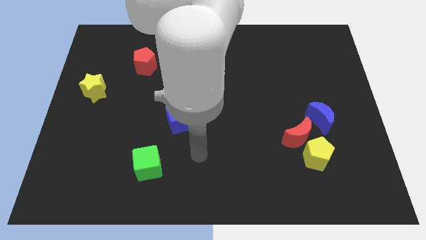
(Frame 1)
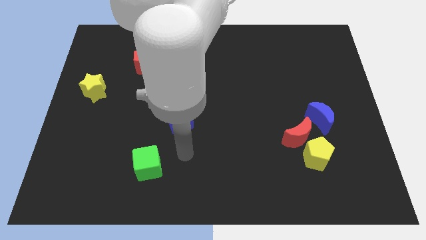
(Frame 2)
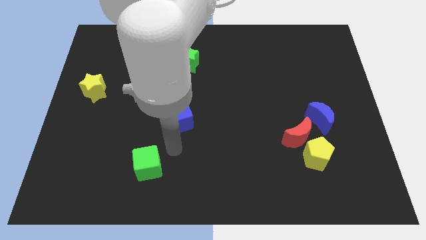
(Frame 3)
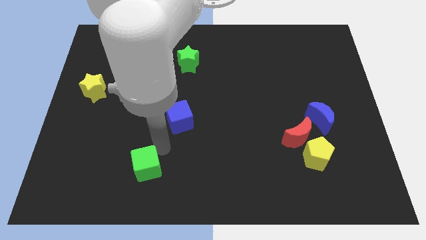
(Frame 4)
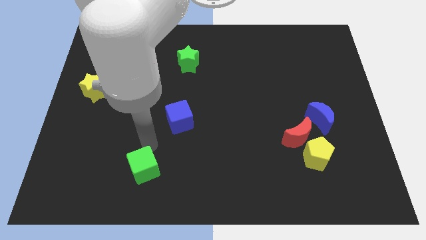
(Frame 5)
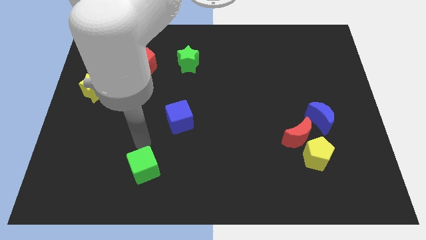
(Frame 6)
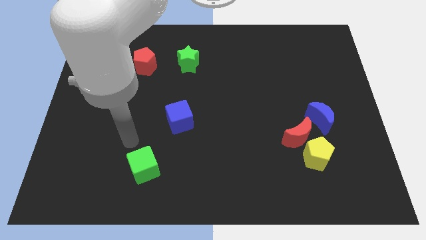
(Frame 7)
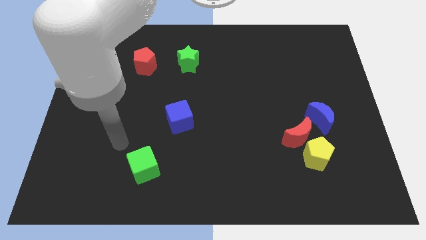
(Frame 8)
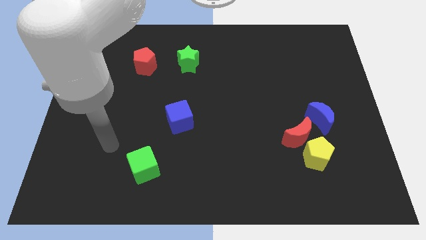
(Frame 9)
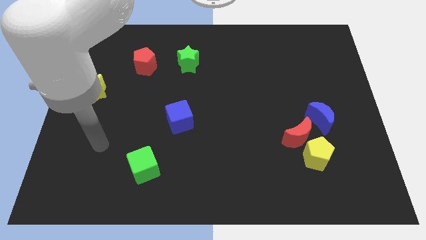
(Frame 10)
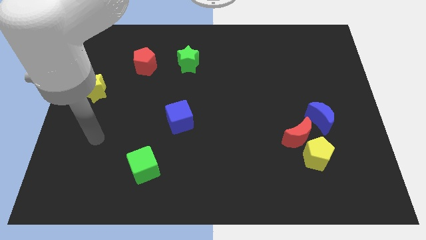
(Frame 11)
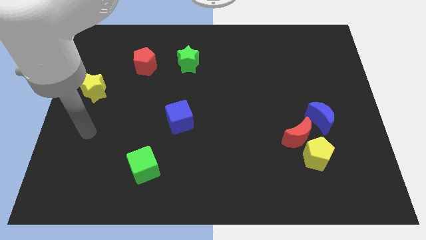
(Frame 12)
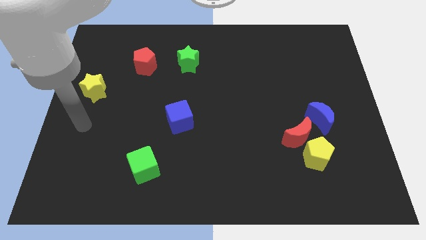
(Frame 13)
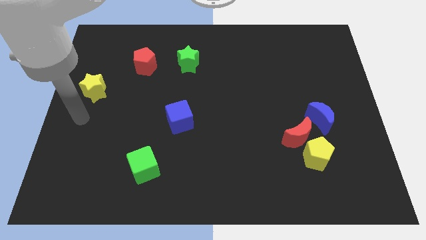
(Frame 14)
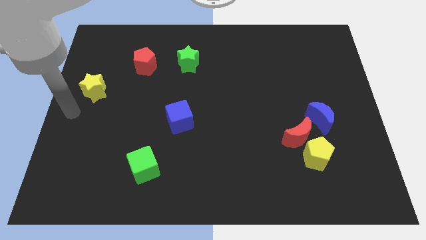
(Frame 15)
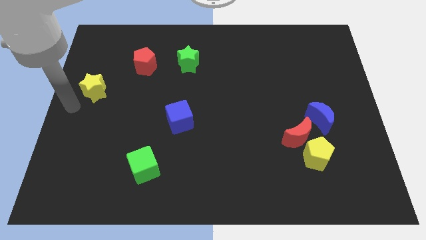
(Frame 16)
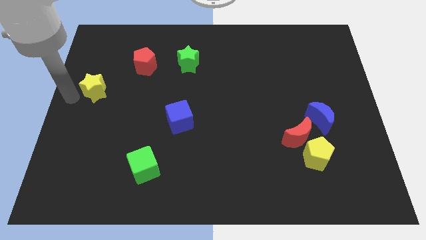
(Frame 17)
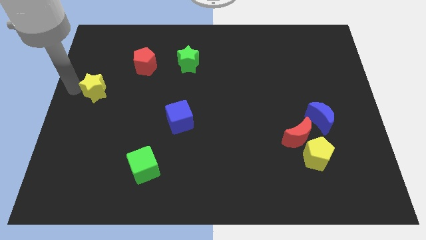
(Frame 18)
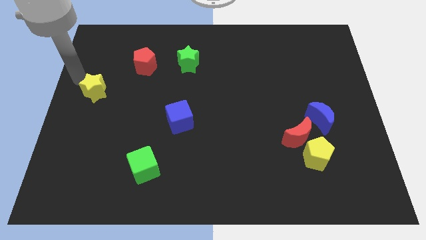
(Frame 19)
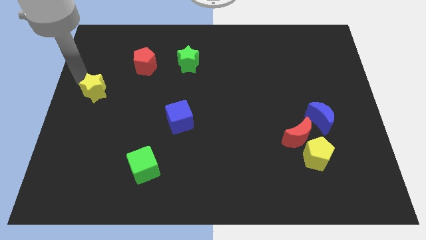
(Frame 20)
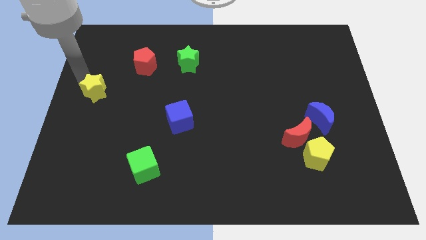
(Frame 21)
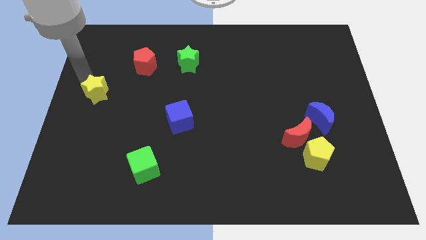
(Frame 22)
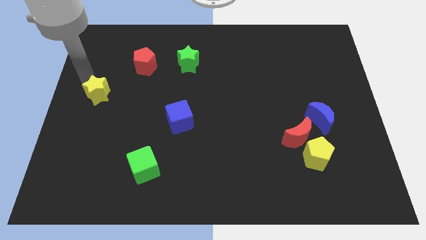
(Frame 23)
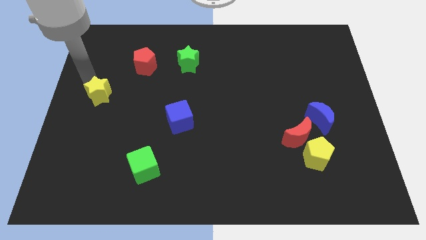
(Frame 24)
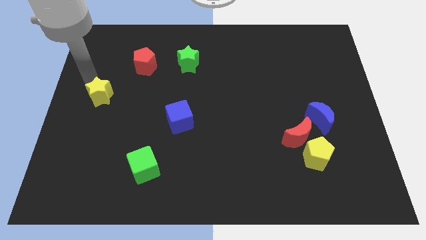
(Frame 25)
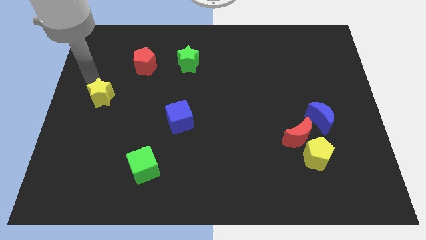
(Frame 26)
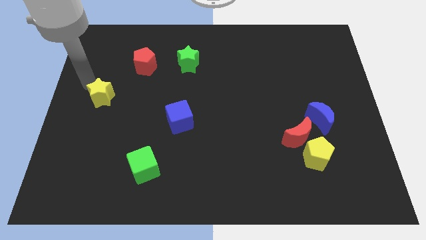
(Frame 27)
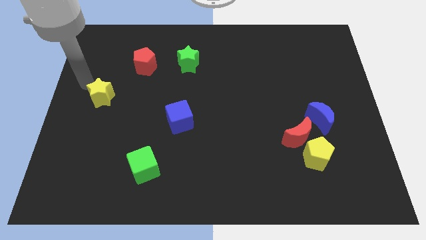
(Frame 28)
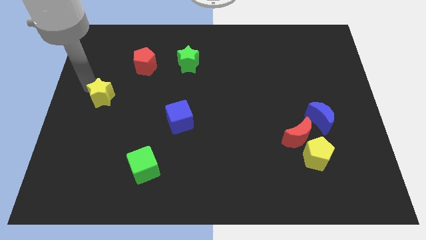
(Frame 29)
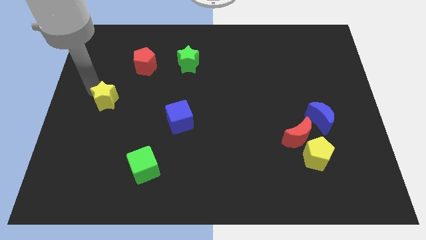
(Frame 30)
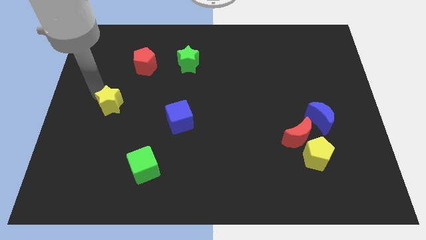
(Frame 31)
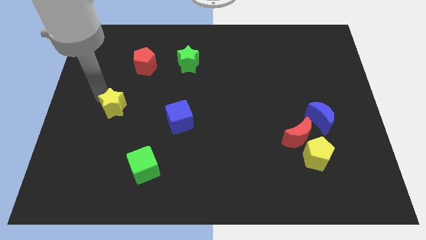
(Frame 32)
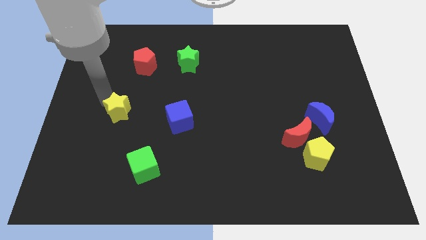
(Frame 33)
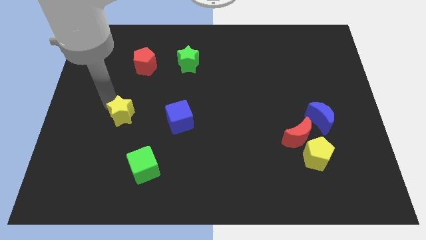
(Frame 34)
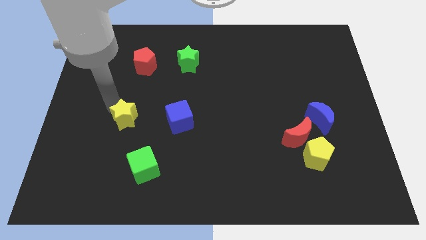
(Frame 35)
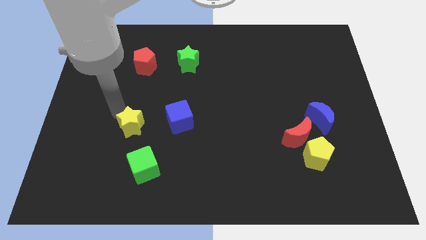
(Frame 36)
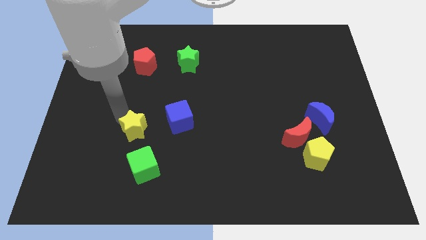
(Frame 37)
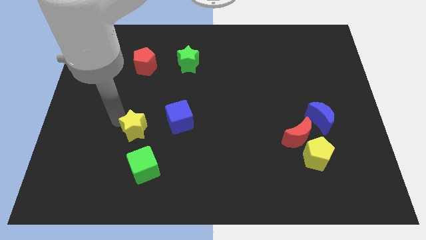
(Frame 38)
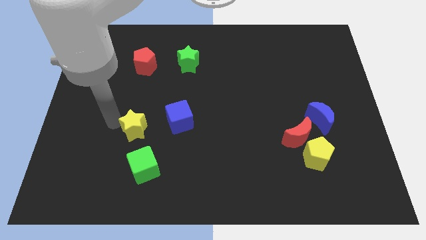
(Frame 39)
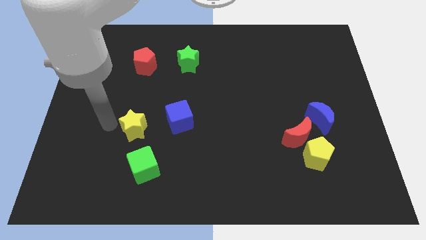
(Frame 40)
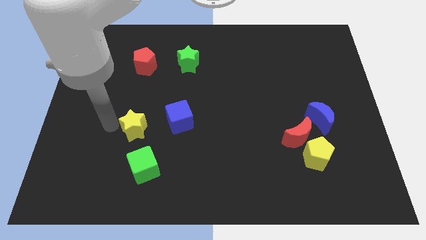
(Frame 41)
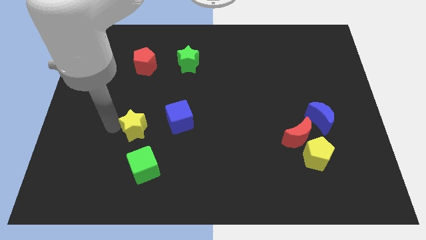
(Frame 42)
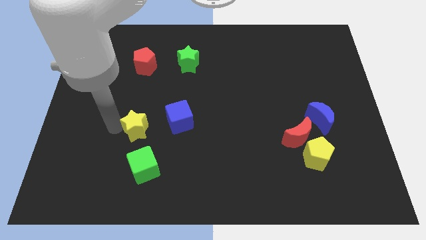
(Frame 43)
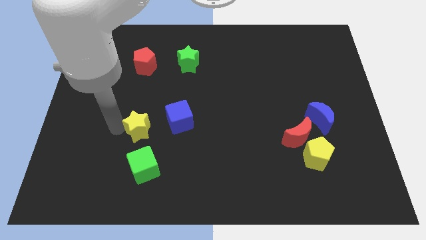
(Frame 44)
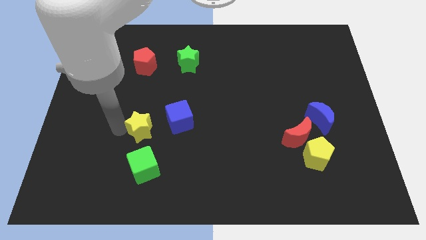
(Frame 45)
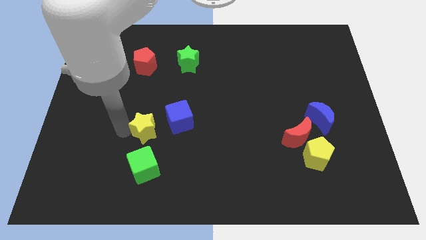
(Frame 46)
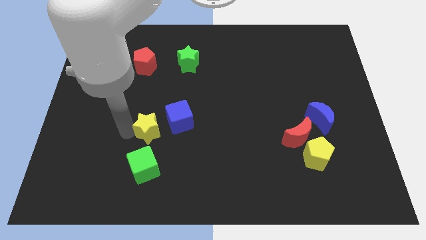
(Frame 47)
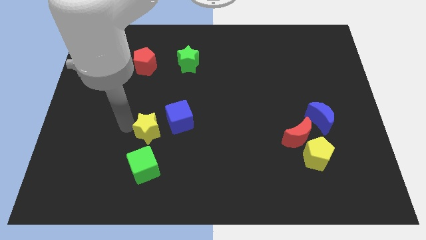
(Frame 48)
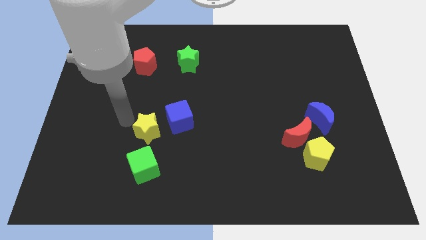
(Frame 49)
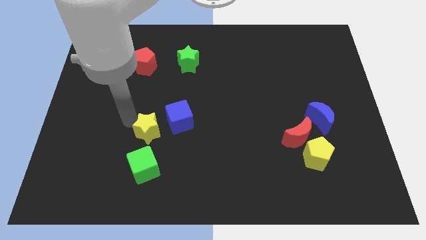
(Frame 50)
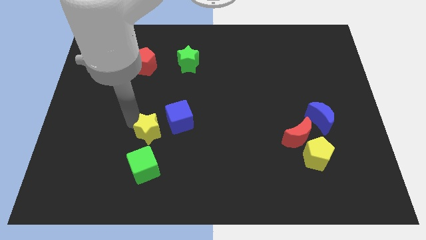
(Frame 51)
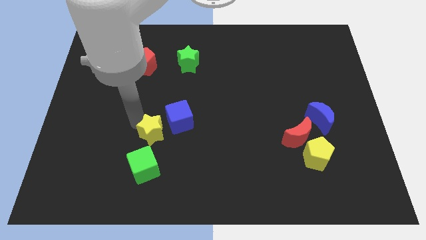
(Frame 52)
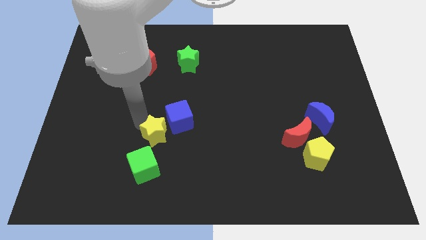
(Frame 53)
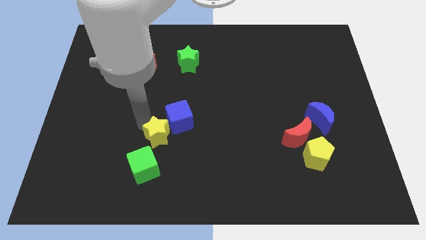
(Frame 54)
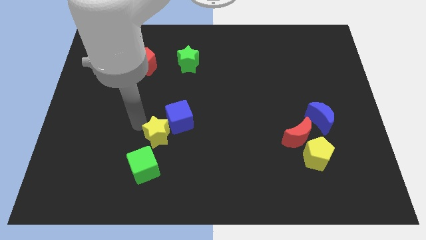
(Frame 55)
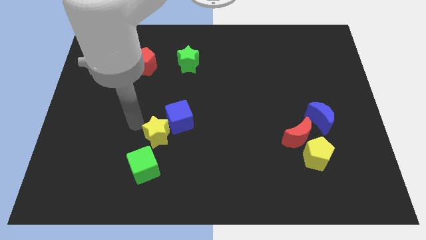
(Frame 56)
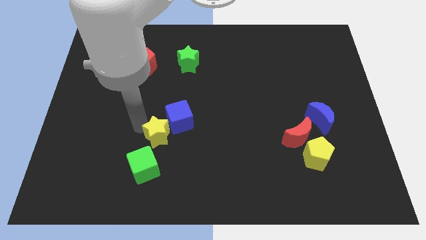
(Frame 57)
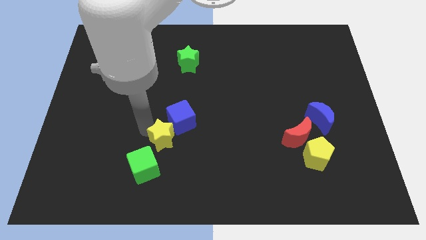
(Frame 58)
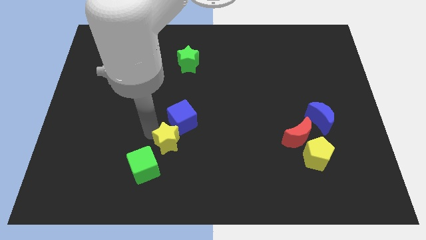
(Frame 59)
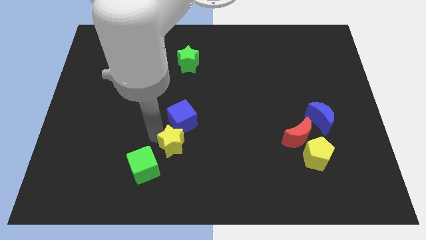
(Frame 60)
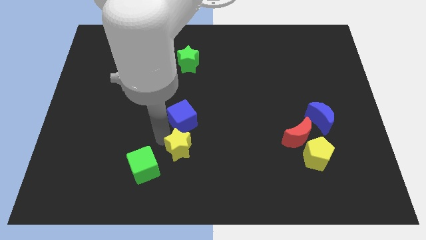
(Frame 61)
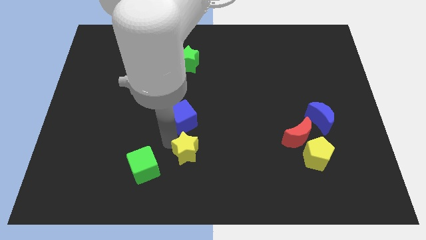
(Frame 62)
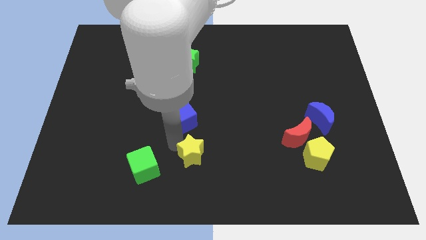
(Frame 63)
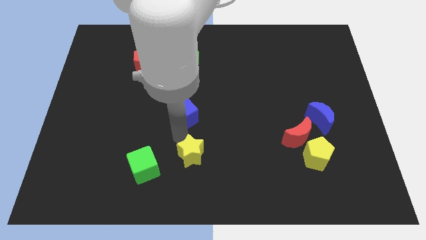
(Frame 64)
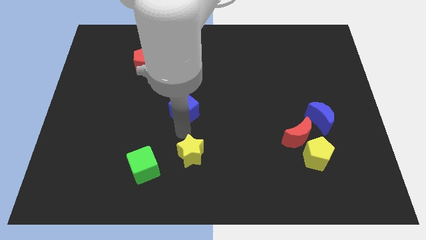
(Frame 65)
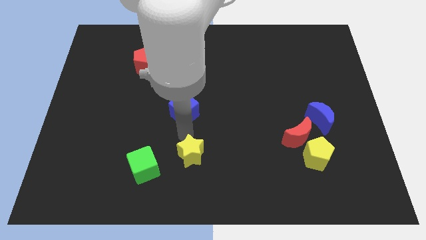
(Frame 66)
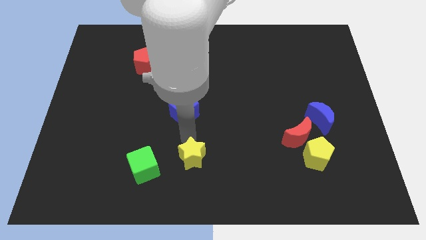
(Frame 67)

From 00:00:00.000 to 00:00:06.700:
put the yellow star to the bottom side

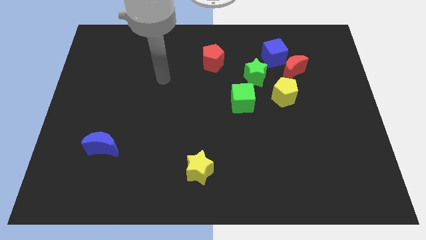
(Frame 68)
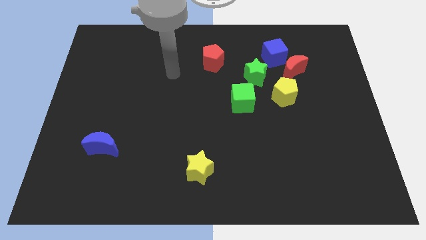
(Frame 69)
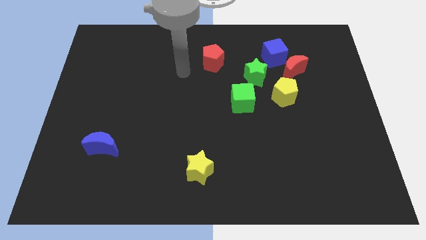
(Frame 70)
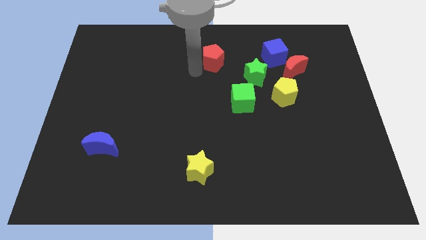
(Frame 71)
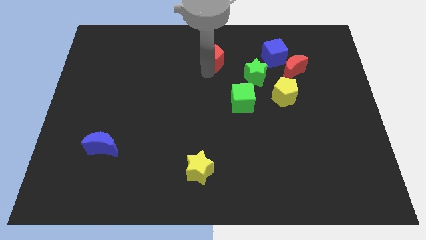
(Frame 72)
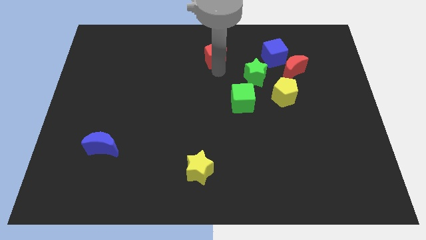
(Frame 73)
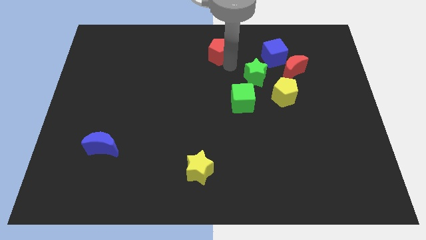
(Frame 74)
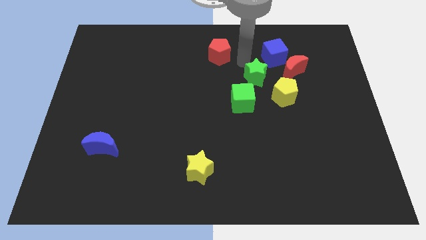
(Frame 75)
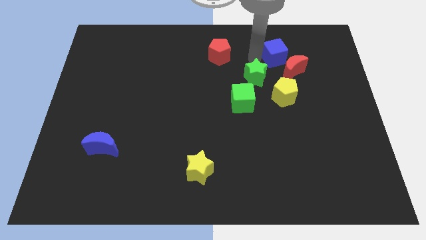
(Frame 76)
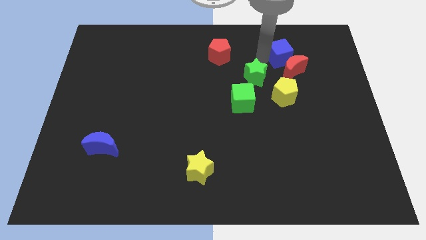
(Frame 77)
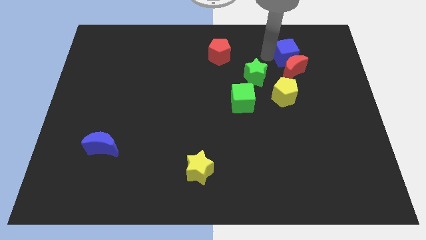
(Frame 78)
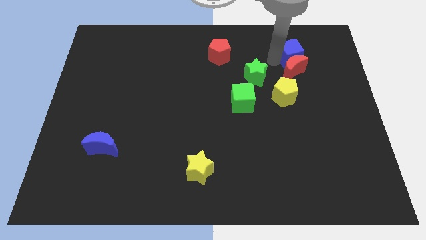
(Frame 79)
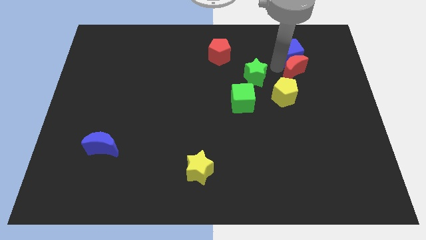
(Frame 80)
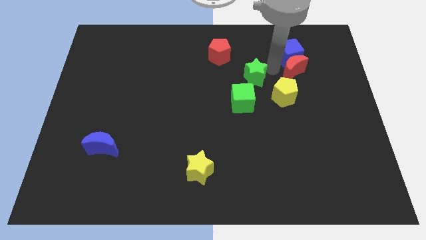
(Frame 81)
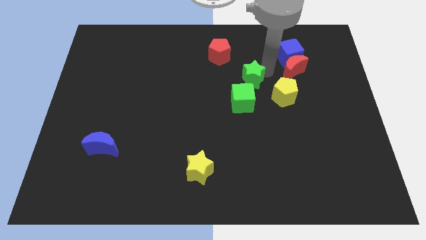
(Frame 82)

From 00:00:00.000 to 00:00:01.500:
move the green star to the center
